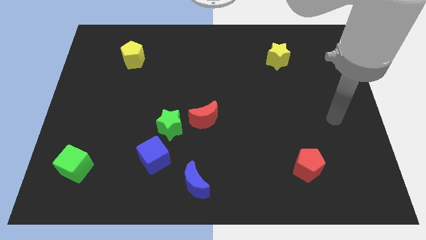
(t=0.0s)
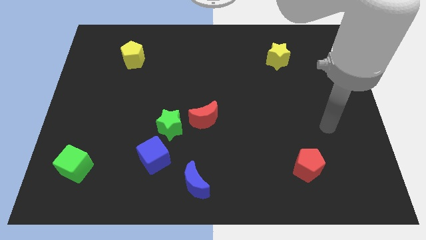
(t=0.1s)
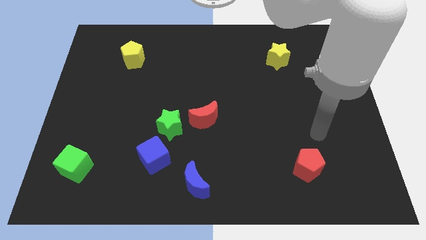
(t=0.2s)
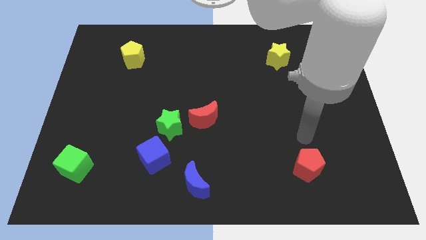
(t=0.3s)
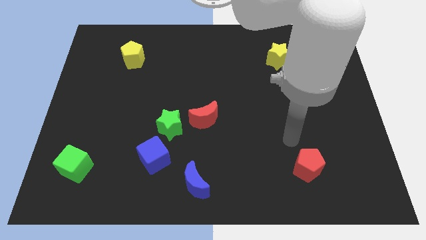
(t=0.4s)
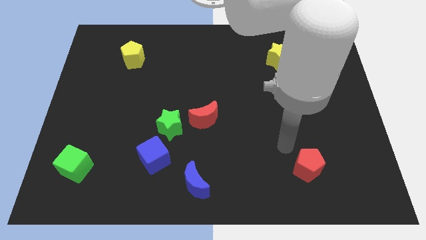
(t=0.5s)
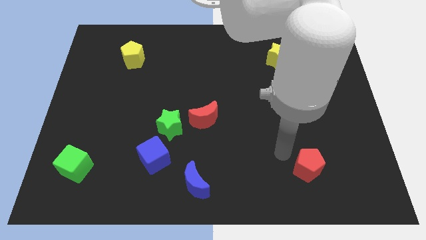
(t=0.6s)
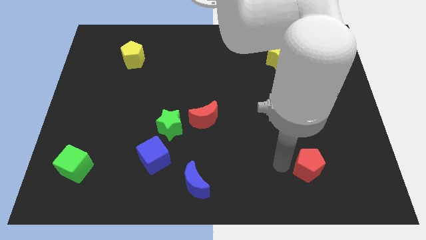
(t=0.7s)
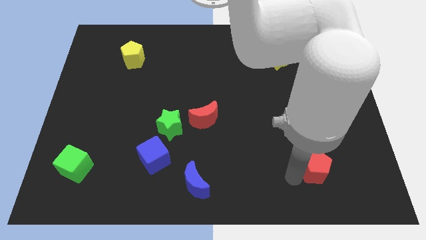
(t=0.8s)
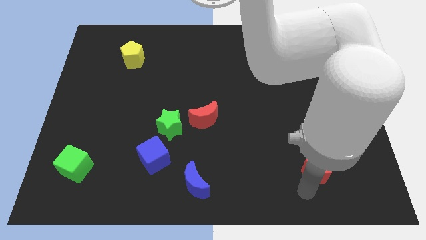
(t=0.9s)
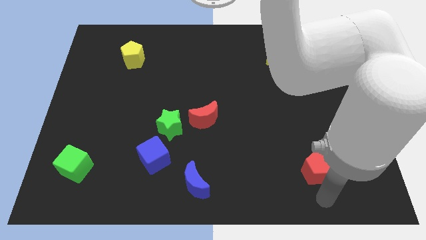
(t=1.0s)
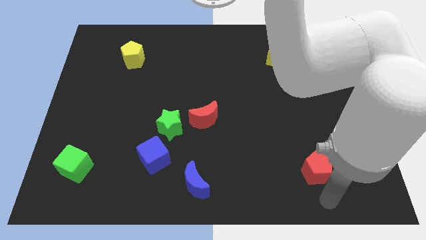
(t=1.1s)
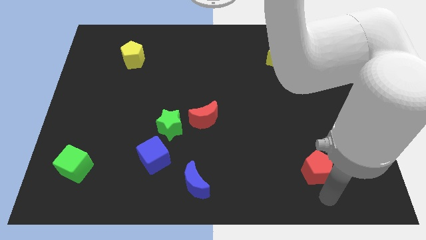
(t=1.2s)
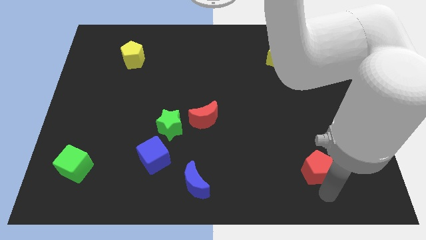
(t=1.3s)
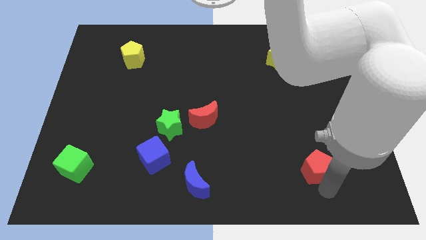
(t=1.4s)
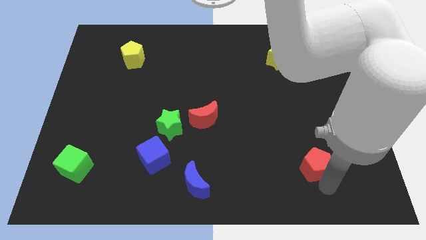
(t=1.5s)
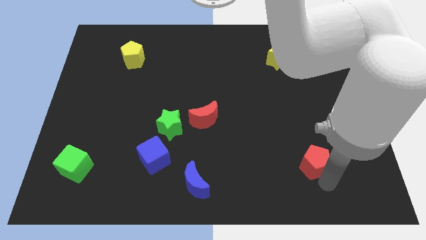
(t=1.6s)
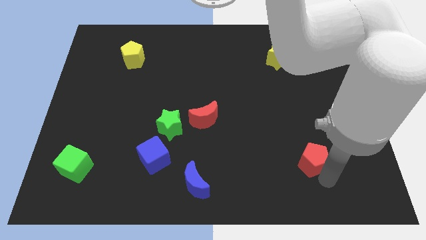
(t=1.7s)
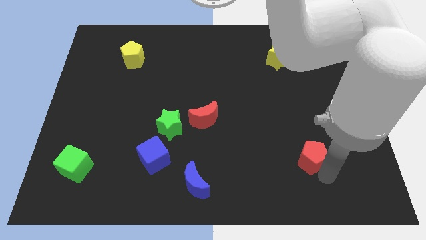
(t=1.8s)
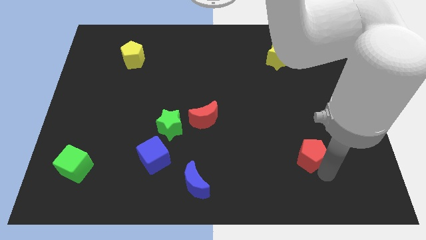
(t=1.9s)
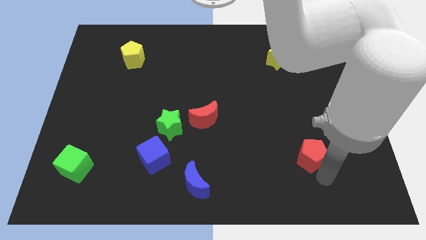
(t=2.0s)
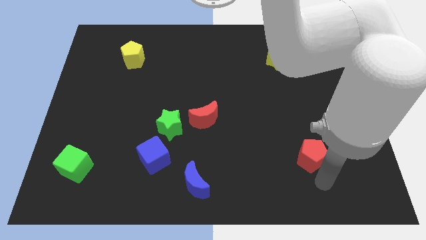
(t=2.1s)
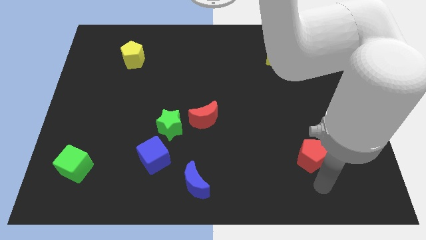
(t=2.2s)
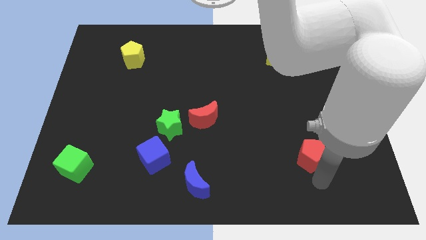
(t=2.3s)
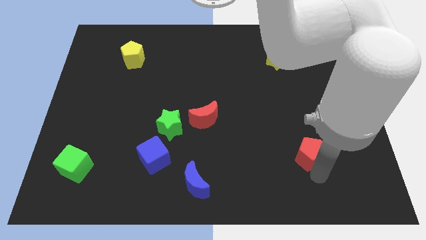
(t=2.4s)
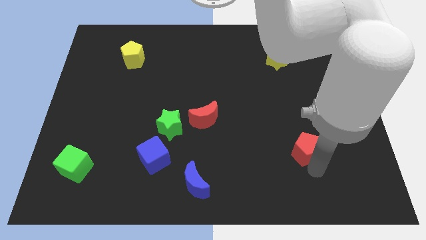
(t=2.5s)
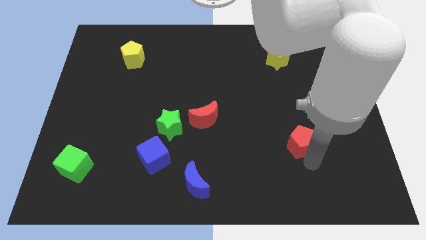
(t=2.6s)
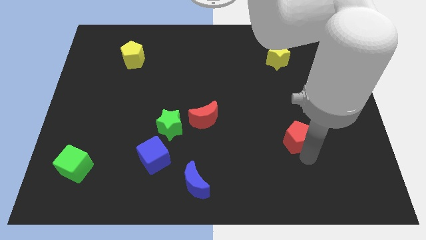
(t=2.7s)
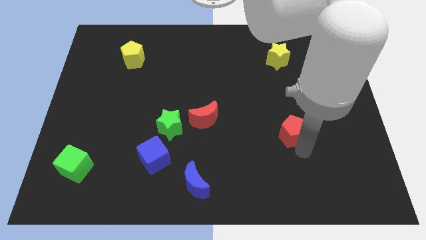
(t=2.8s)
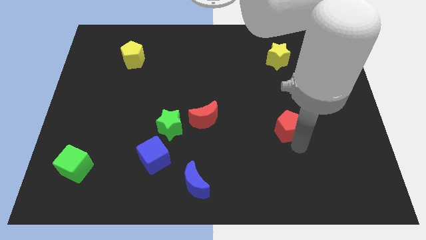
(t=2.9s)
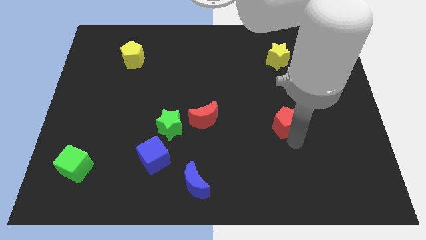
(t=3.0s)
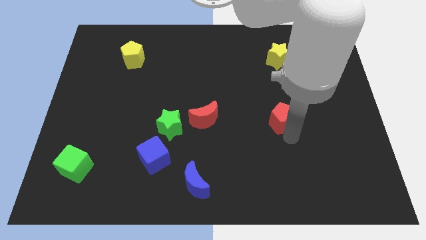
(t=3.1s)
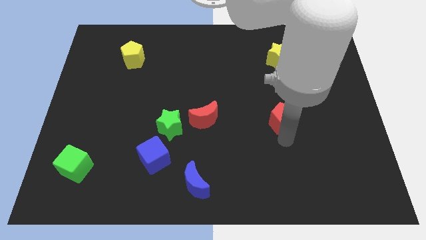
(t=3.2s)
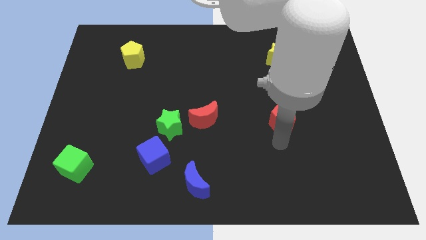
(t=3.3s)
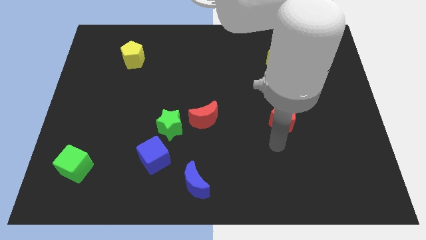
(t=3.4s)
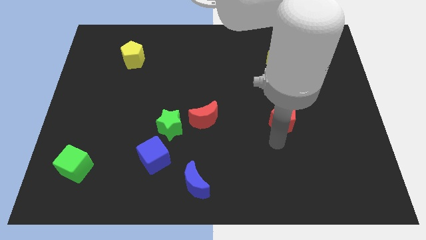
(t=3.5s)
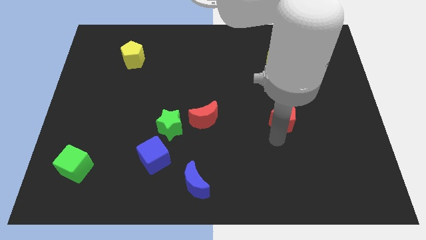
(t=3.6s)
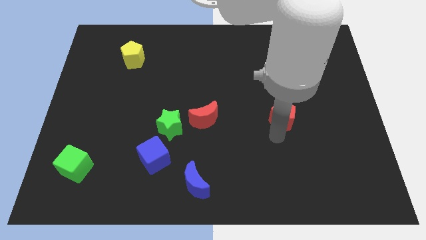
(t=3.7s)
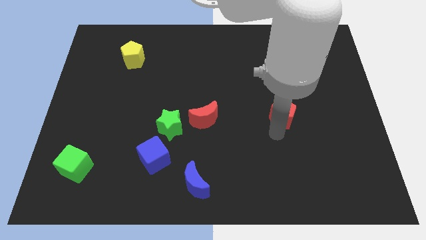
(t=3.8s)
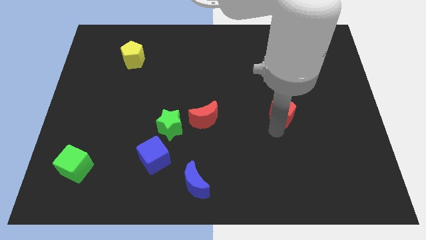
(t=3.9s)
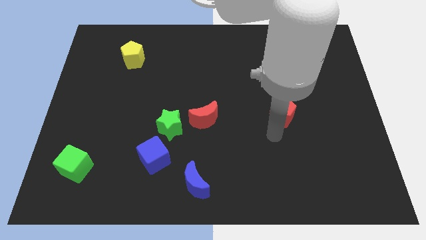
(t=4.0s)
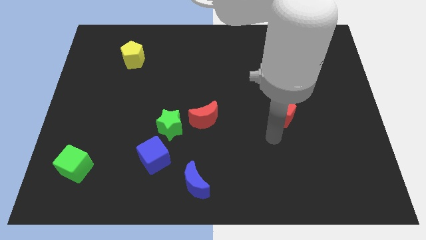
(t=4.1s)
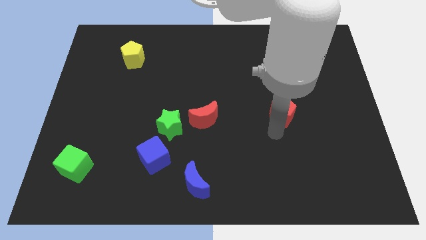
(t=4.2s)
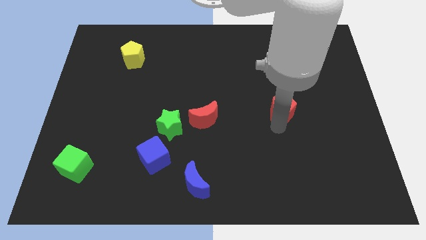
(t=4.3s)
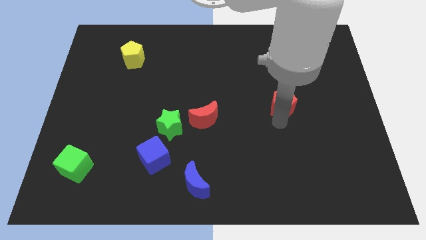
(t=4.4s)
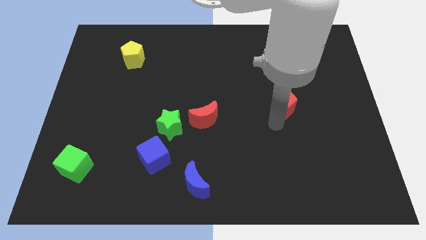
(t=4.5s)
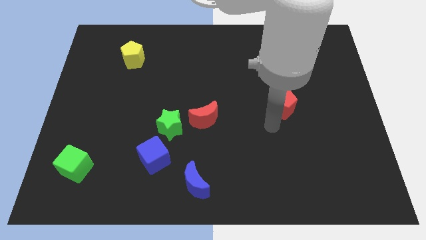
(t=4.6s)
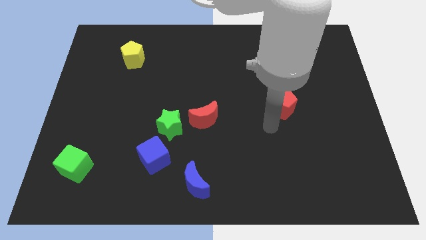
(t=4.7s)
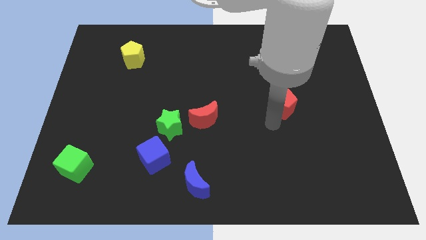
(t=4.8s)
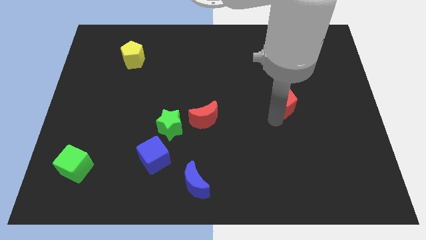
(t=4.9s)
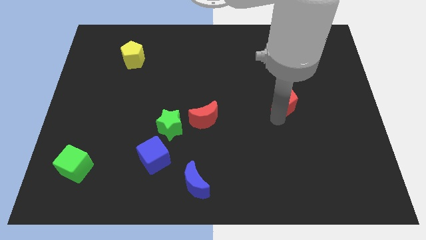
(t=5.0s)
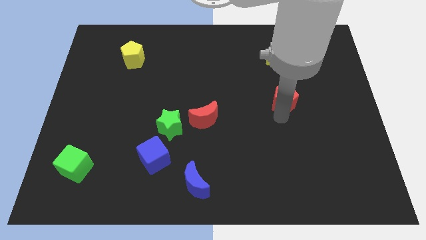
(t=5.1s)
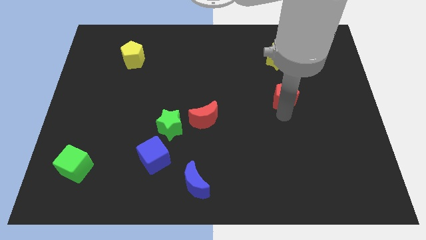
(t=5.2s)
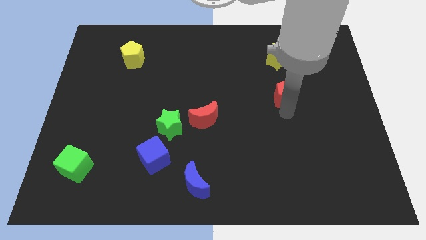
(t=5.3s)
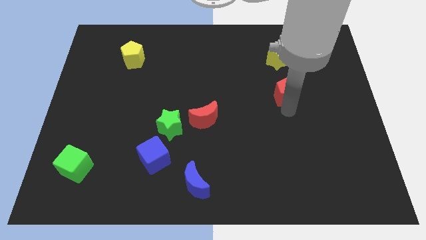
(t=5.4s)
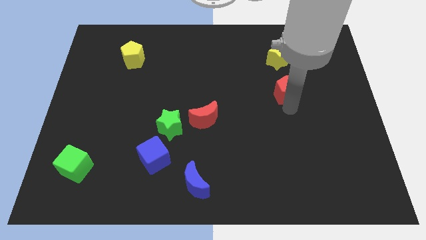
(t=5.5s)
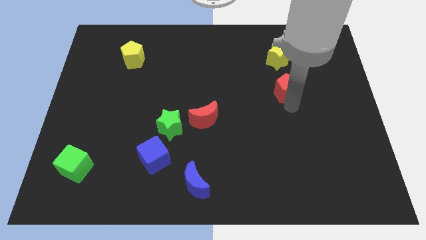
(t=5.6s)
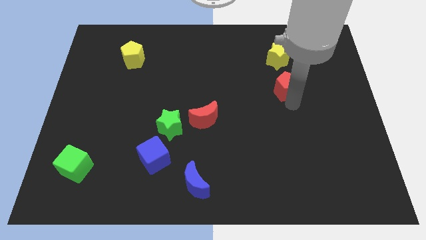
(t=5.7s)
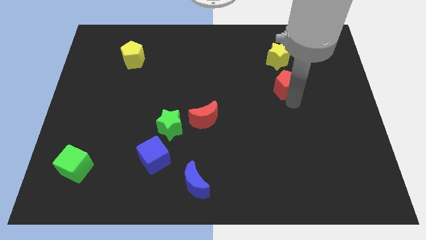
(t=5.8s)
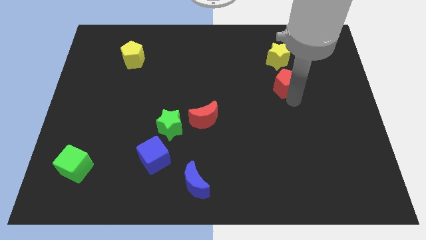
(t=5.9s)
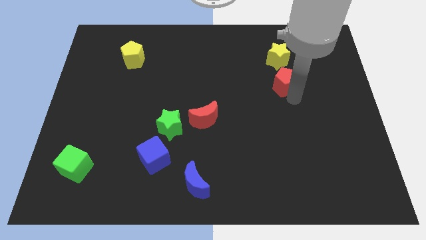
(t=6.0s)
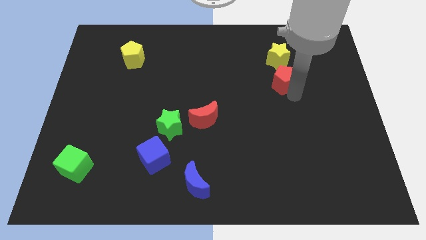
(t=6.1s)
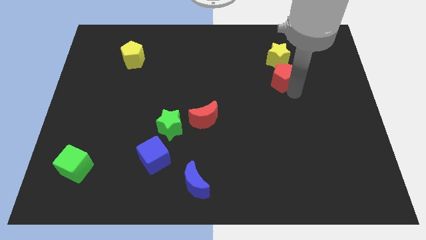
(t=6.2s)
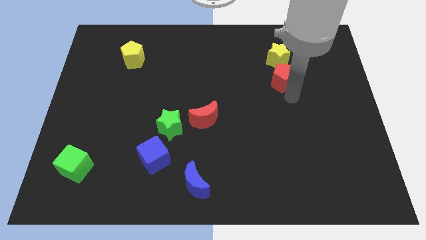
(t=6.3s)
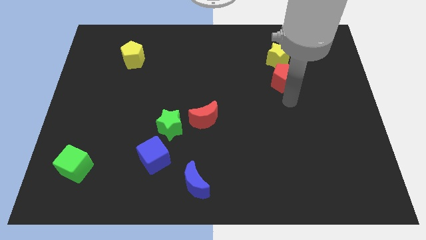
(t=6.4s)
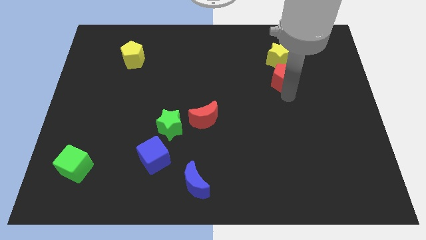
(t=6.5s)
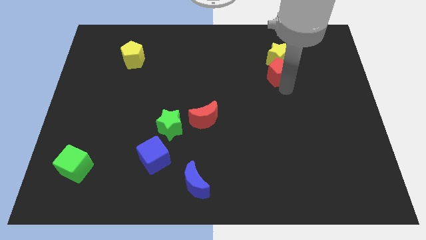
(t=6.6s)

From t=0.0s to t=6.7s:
push the red pentagon next to the yellow star

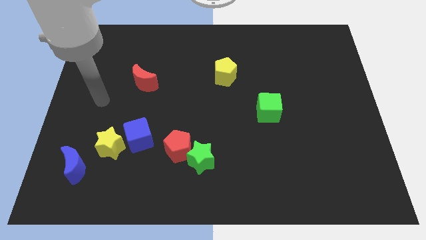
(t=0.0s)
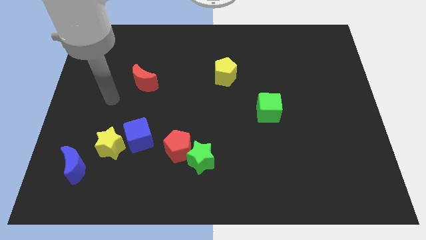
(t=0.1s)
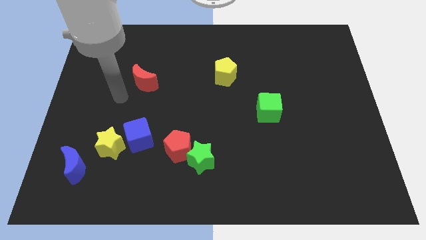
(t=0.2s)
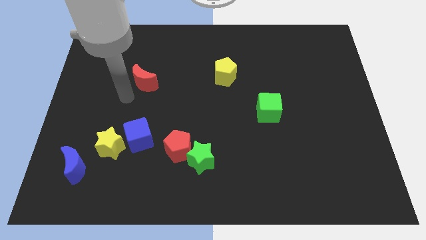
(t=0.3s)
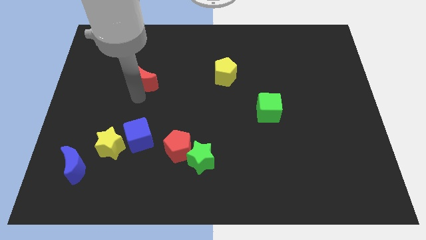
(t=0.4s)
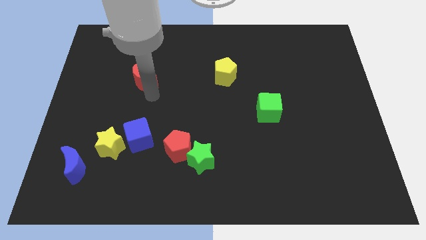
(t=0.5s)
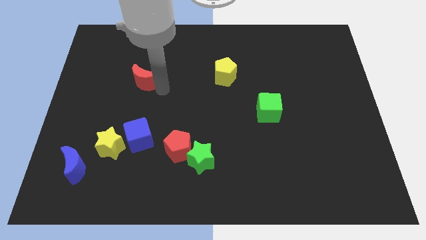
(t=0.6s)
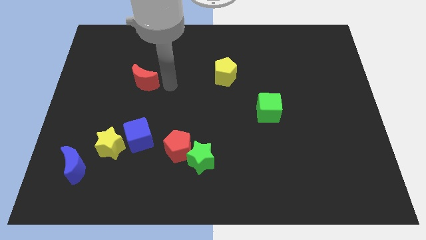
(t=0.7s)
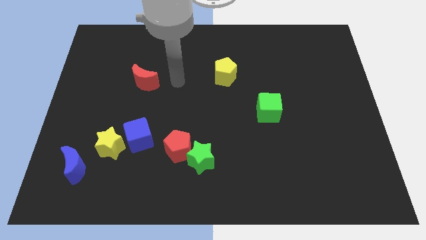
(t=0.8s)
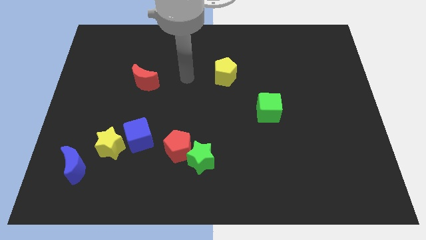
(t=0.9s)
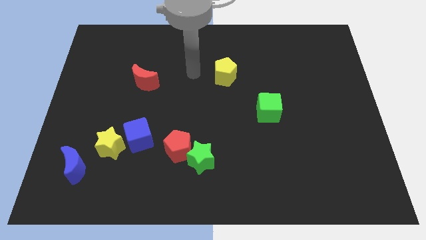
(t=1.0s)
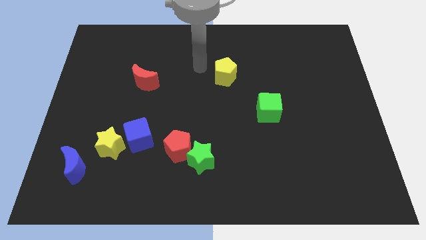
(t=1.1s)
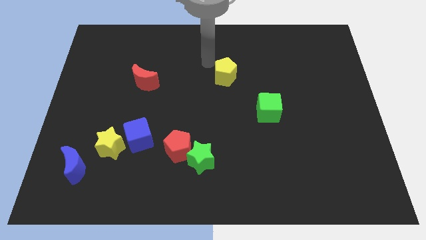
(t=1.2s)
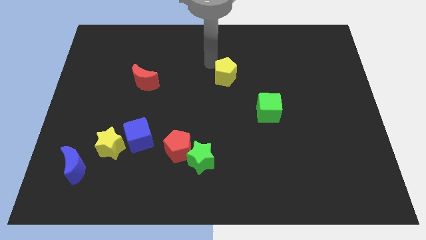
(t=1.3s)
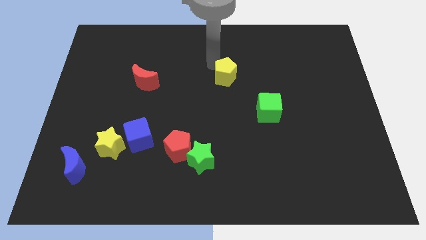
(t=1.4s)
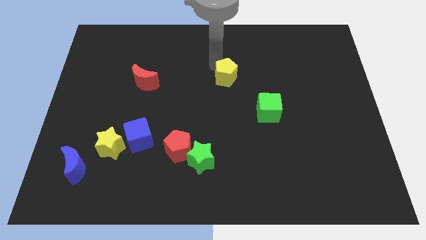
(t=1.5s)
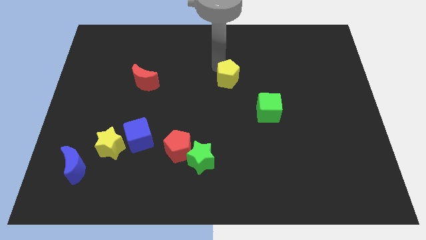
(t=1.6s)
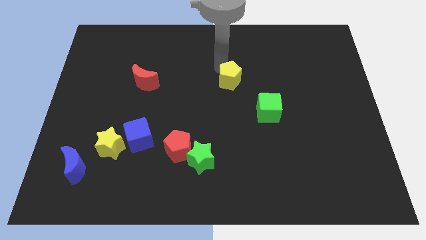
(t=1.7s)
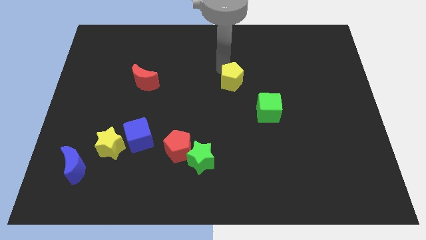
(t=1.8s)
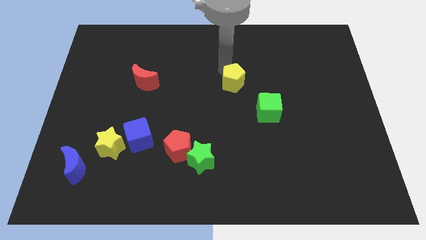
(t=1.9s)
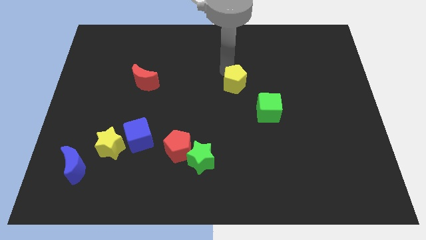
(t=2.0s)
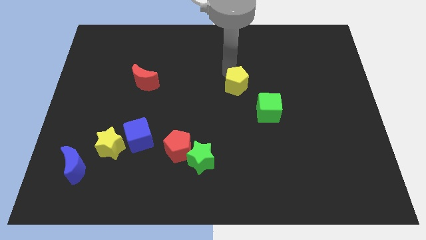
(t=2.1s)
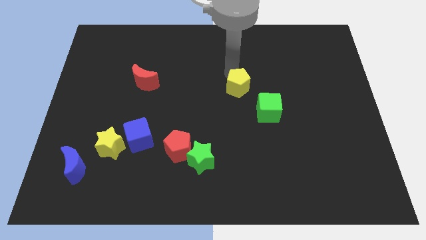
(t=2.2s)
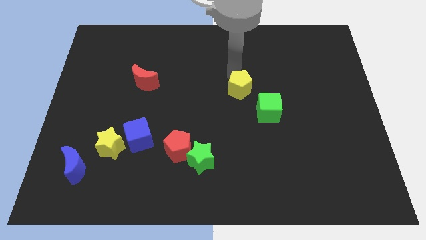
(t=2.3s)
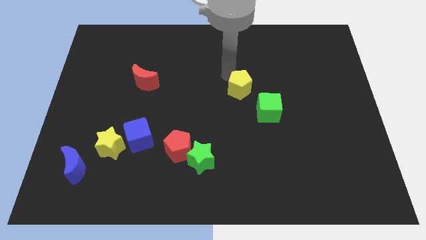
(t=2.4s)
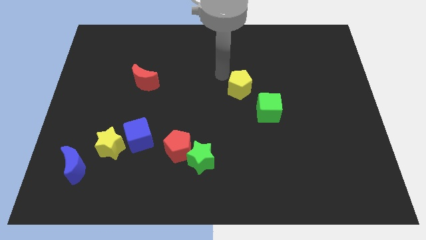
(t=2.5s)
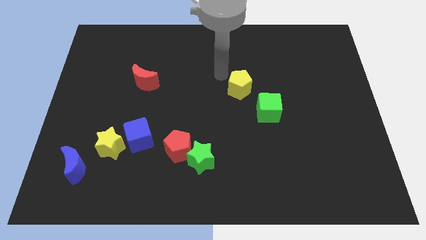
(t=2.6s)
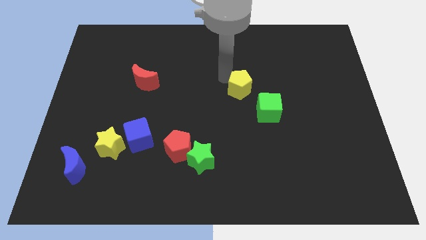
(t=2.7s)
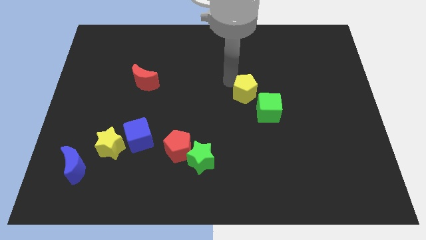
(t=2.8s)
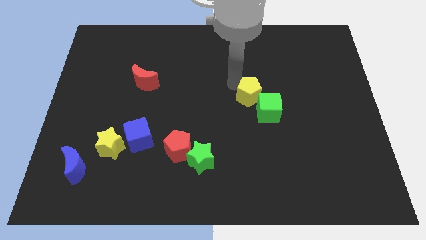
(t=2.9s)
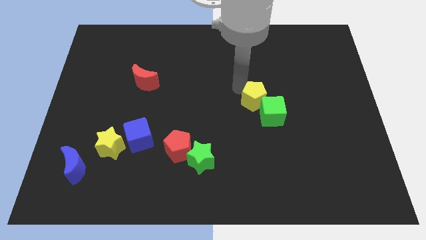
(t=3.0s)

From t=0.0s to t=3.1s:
slide the yellow pentagon next to the green cube
